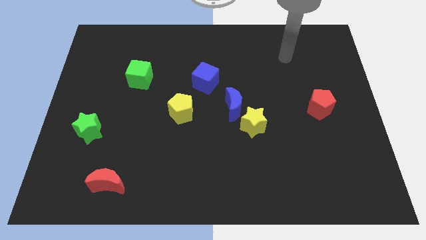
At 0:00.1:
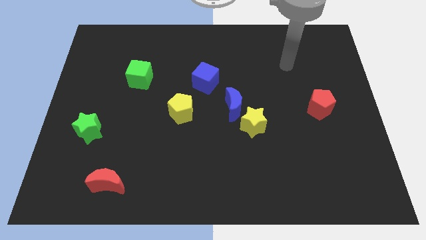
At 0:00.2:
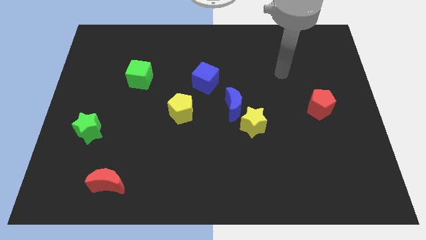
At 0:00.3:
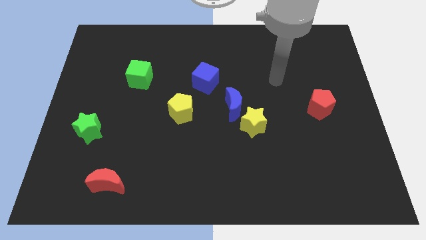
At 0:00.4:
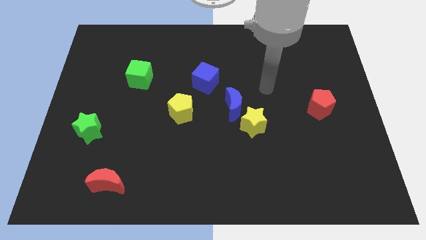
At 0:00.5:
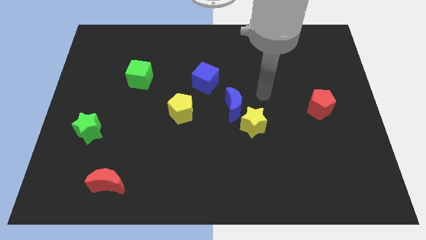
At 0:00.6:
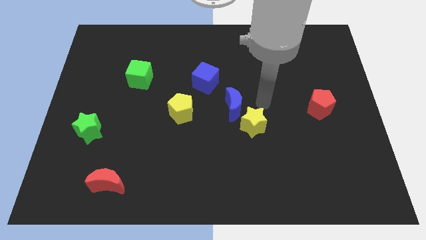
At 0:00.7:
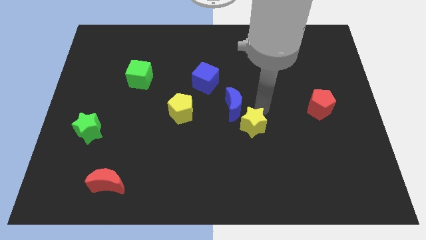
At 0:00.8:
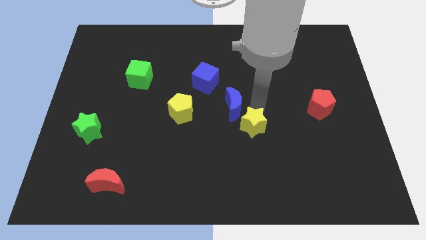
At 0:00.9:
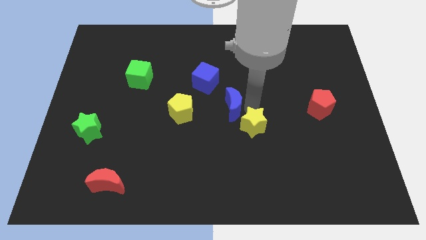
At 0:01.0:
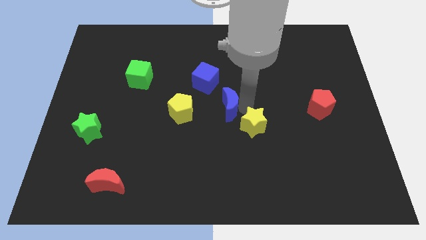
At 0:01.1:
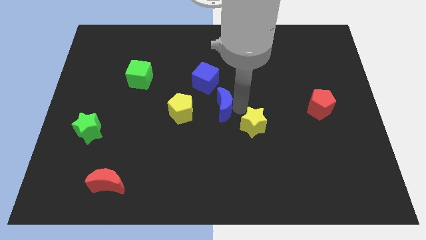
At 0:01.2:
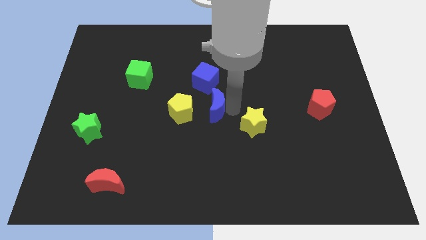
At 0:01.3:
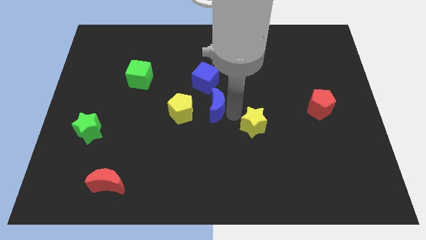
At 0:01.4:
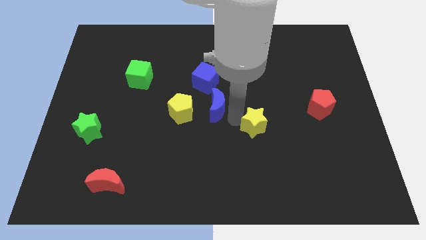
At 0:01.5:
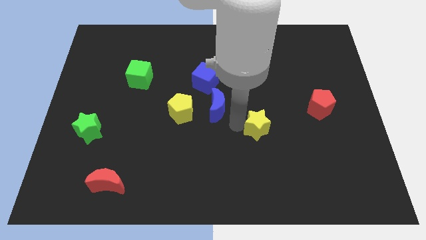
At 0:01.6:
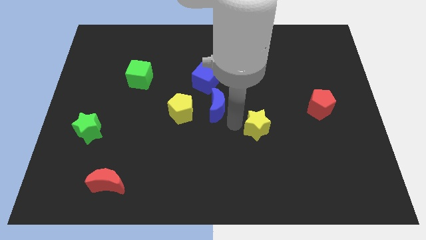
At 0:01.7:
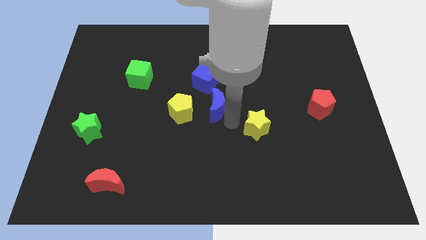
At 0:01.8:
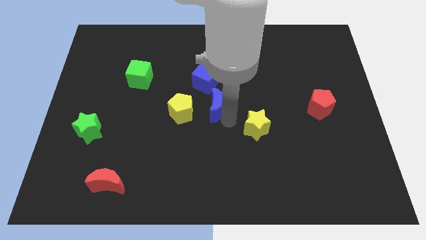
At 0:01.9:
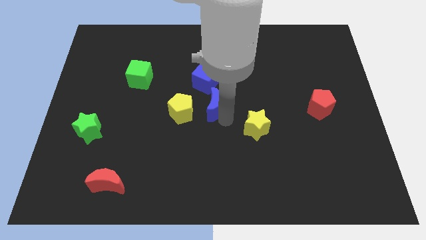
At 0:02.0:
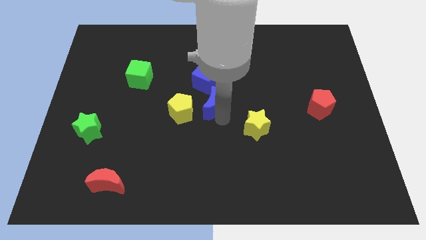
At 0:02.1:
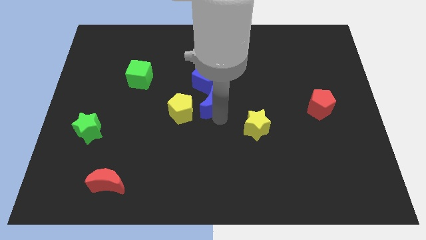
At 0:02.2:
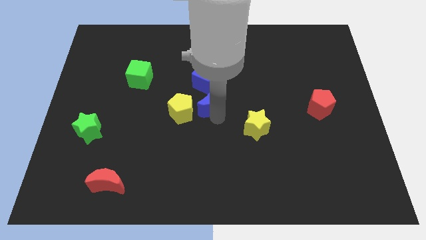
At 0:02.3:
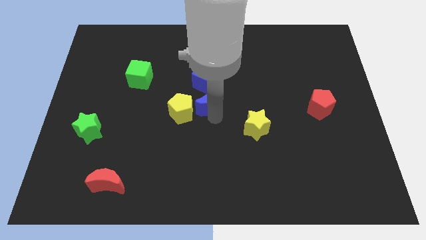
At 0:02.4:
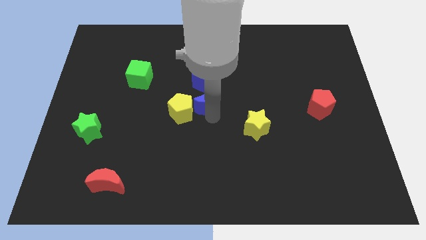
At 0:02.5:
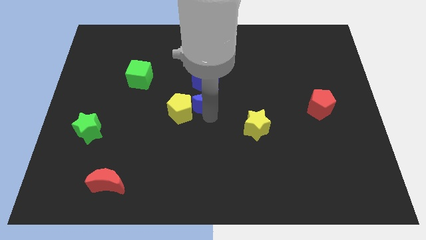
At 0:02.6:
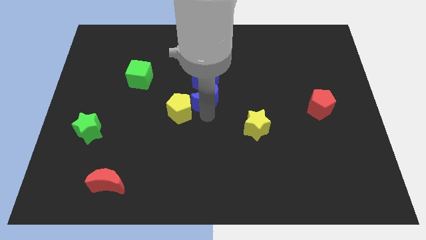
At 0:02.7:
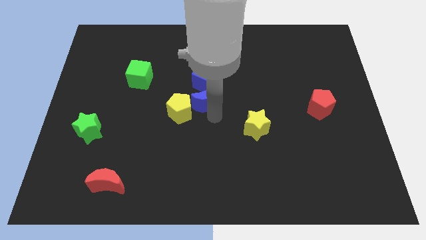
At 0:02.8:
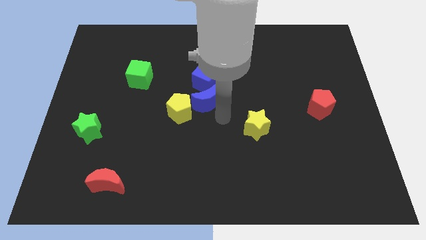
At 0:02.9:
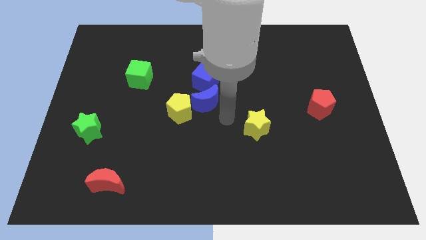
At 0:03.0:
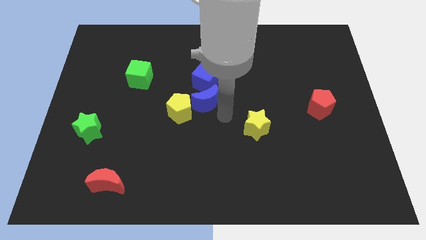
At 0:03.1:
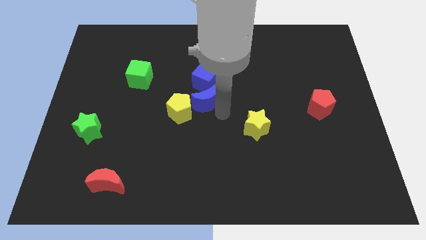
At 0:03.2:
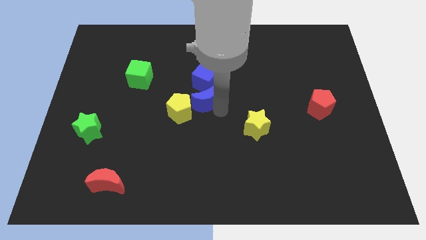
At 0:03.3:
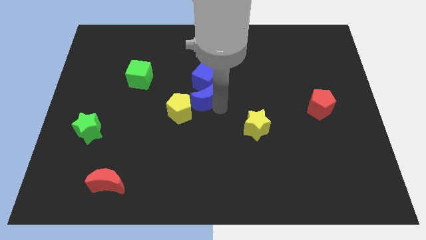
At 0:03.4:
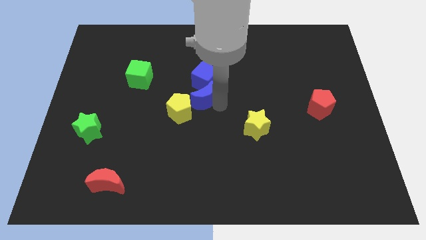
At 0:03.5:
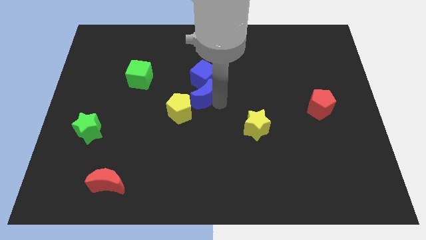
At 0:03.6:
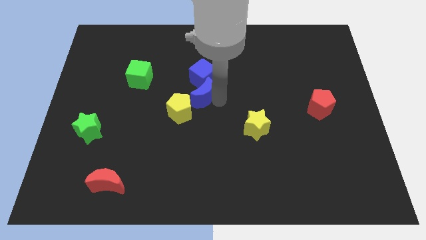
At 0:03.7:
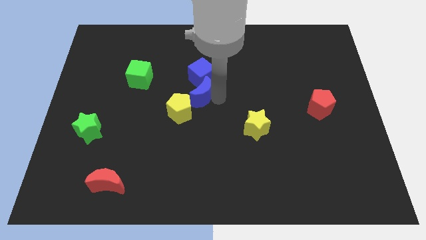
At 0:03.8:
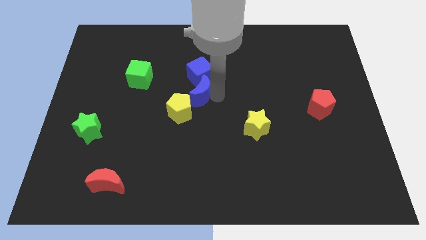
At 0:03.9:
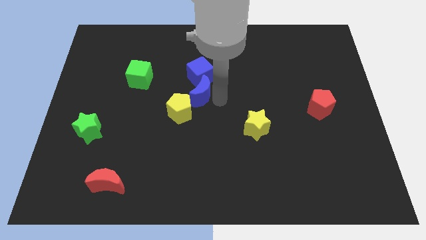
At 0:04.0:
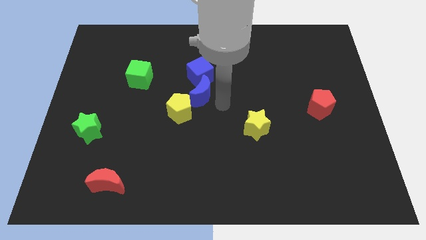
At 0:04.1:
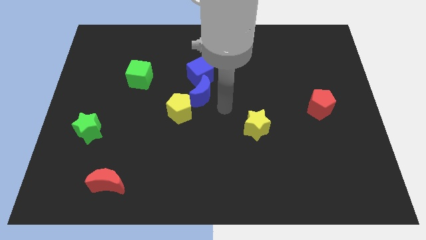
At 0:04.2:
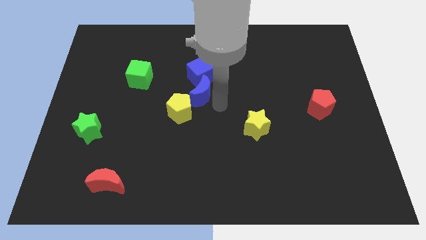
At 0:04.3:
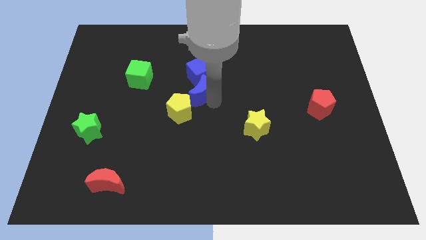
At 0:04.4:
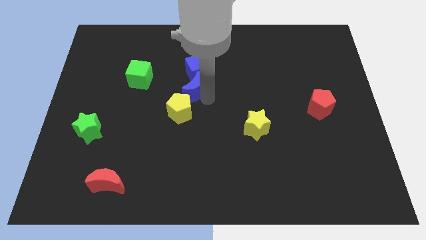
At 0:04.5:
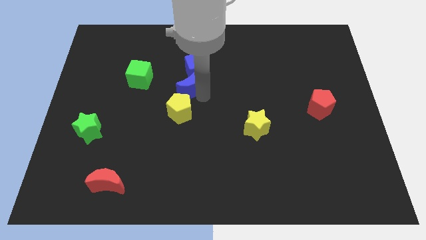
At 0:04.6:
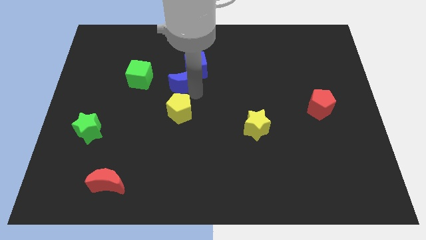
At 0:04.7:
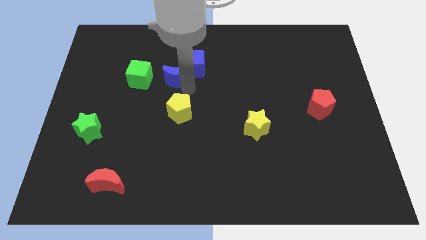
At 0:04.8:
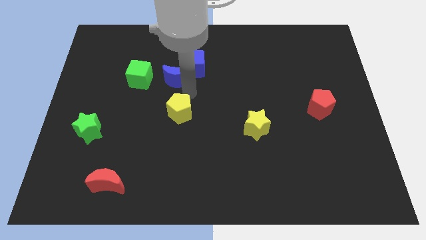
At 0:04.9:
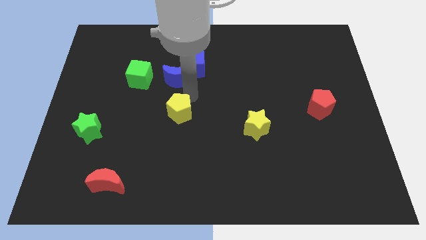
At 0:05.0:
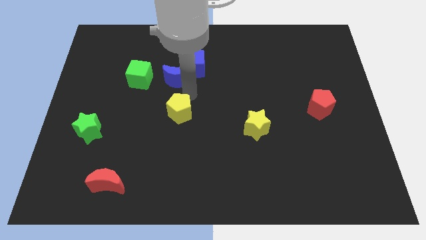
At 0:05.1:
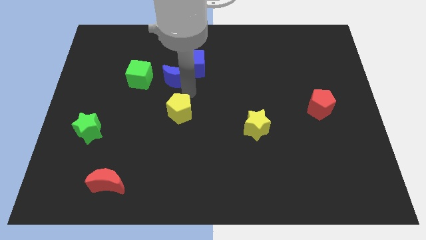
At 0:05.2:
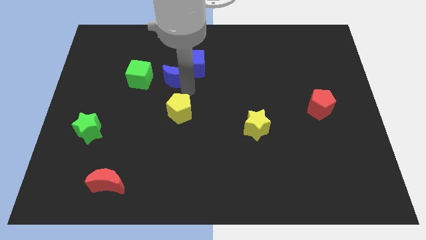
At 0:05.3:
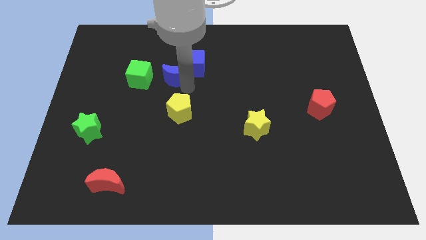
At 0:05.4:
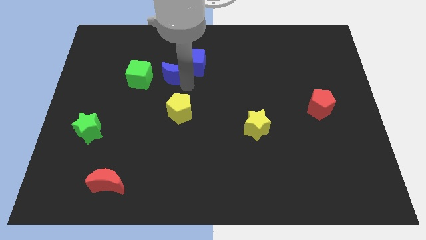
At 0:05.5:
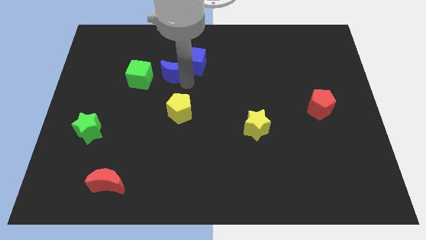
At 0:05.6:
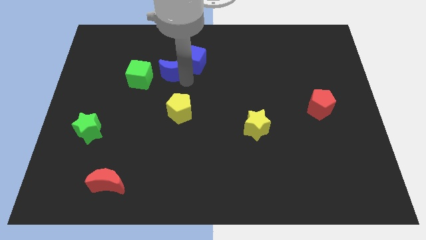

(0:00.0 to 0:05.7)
push the blue moon to the top right side of the green cube

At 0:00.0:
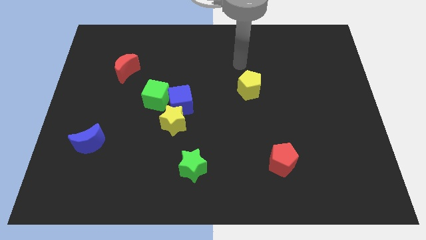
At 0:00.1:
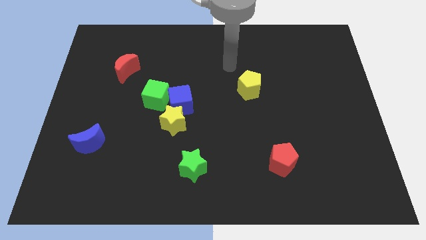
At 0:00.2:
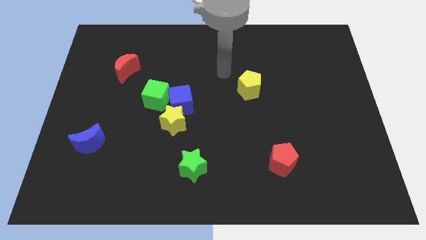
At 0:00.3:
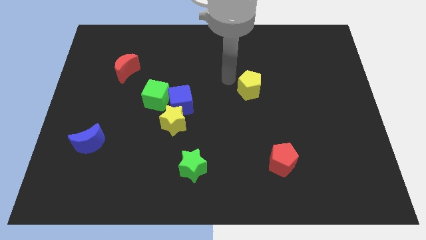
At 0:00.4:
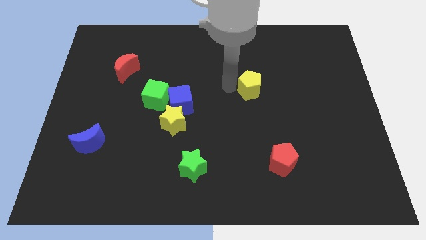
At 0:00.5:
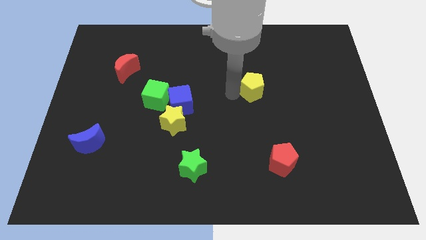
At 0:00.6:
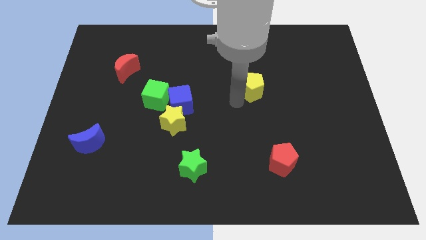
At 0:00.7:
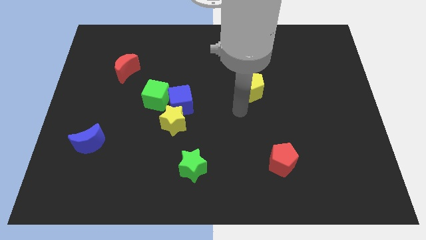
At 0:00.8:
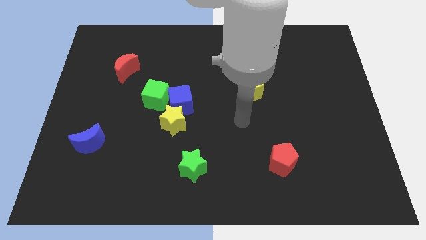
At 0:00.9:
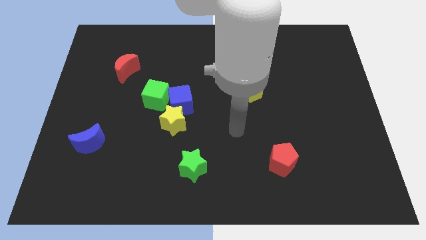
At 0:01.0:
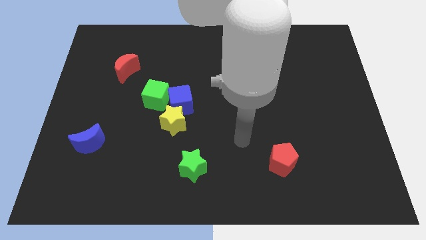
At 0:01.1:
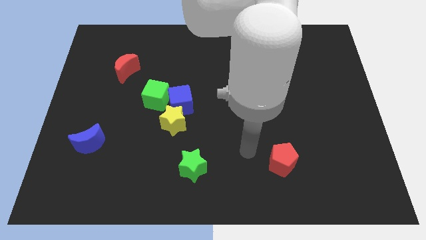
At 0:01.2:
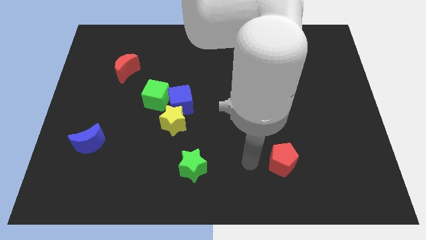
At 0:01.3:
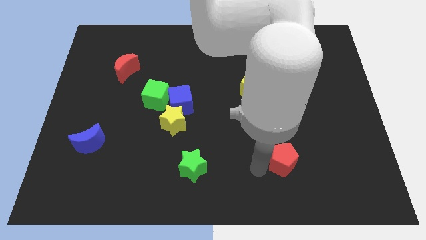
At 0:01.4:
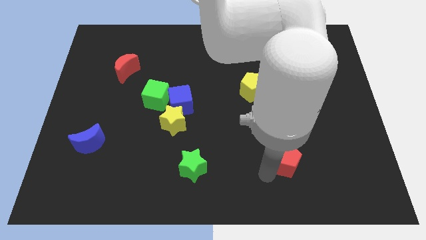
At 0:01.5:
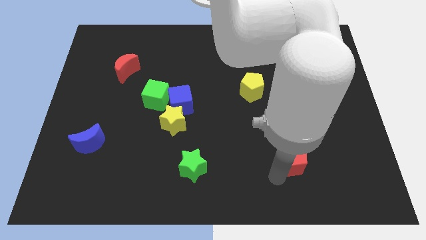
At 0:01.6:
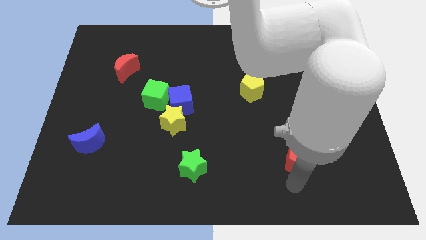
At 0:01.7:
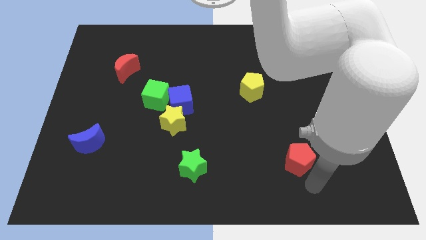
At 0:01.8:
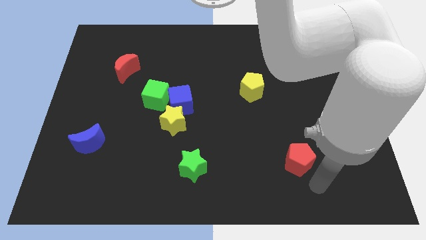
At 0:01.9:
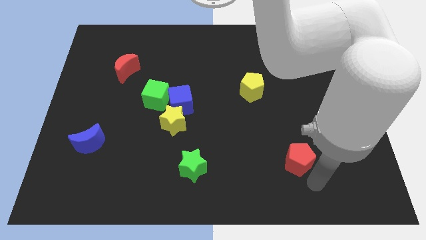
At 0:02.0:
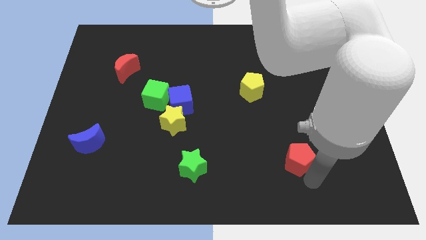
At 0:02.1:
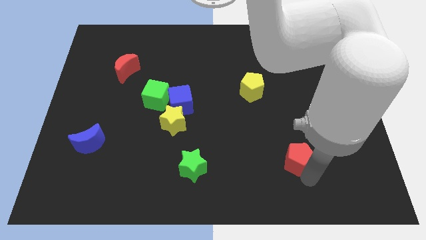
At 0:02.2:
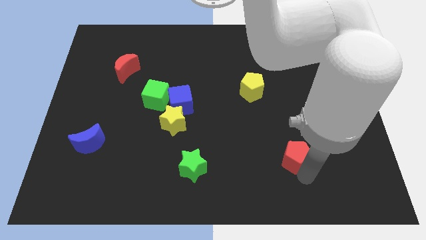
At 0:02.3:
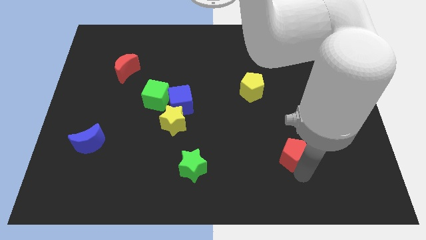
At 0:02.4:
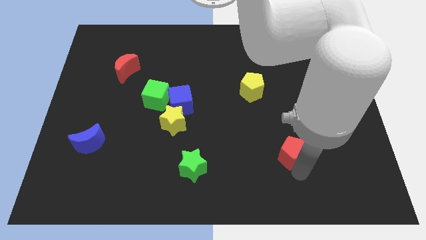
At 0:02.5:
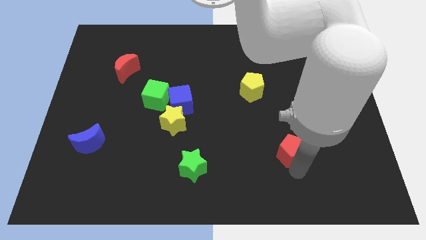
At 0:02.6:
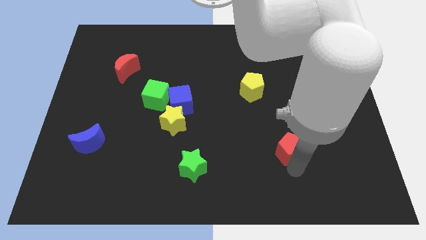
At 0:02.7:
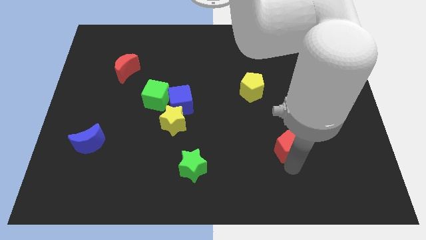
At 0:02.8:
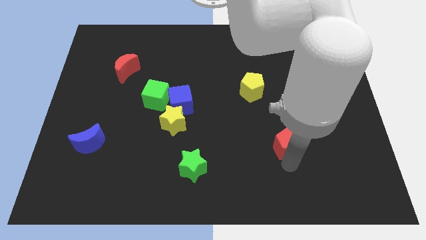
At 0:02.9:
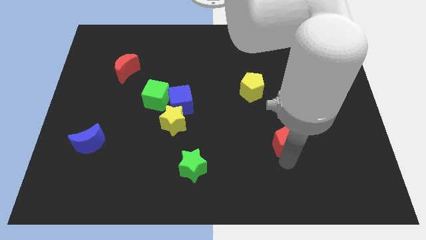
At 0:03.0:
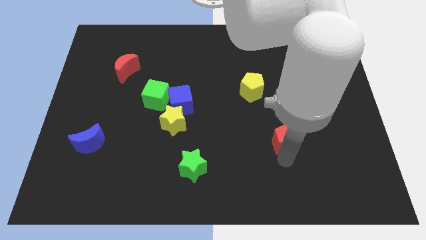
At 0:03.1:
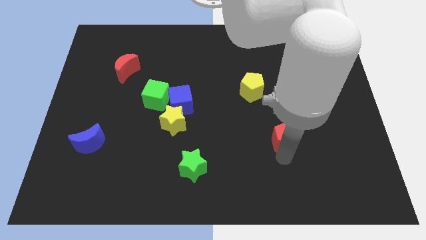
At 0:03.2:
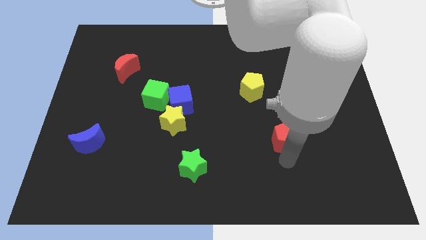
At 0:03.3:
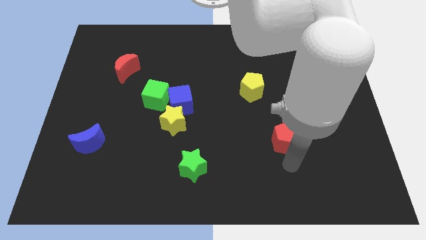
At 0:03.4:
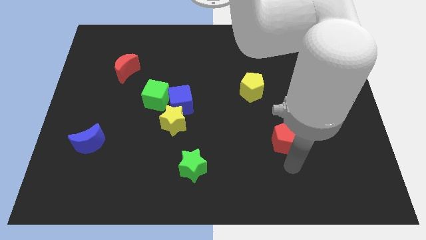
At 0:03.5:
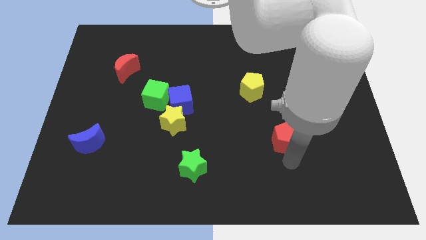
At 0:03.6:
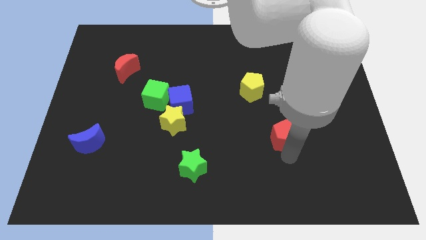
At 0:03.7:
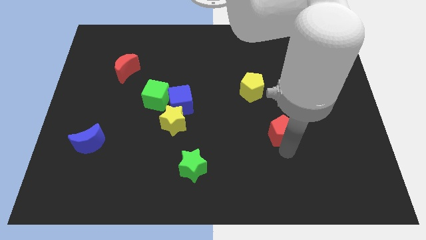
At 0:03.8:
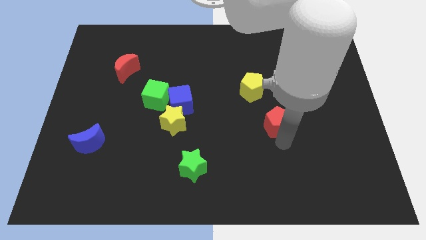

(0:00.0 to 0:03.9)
push the red pentagon diagonally down and to the right of the yellow pentagon
